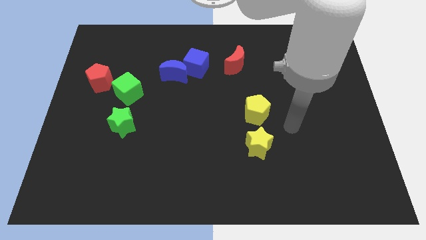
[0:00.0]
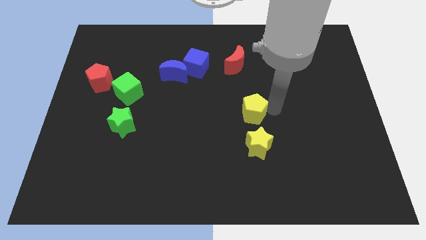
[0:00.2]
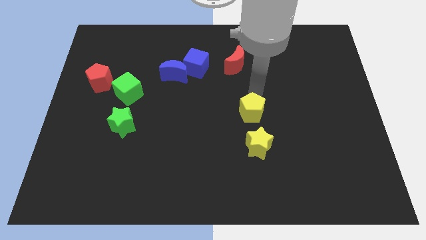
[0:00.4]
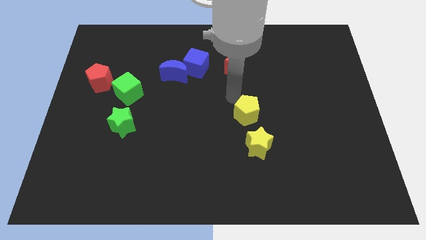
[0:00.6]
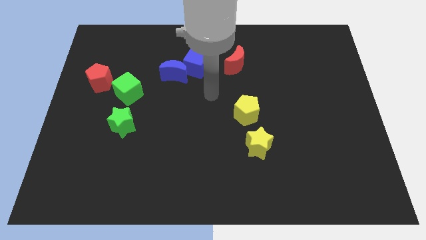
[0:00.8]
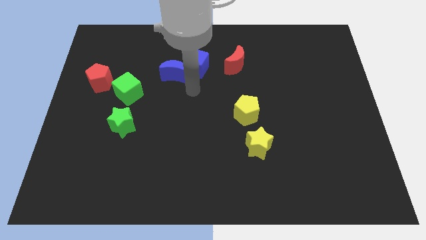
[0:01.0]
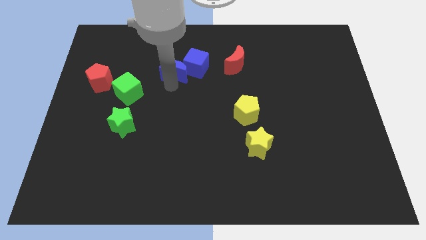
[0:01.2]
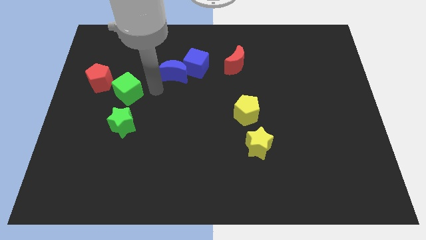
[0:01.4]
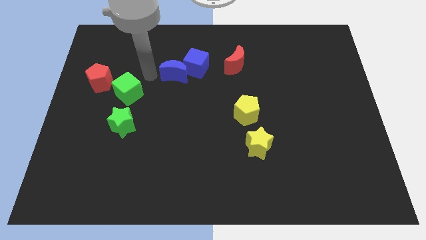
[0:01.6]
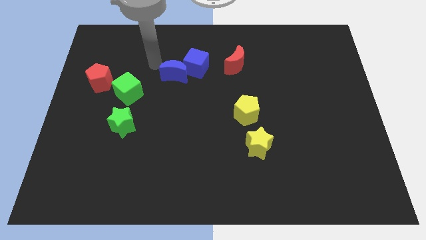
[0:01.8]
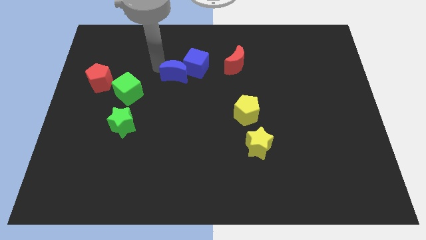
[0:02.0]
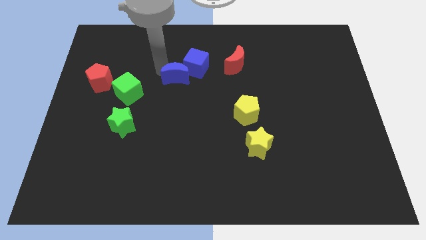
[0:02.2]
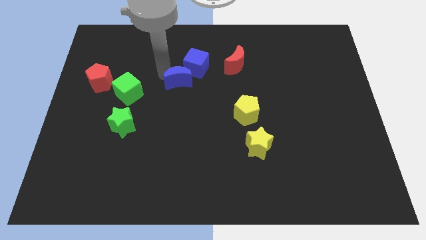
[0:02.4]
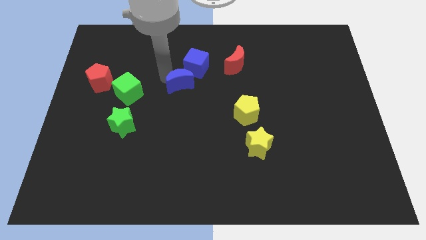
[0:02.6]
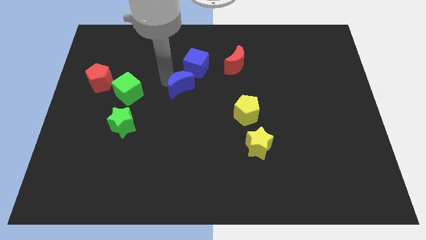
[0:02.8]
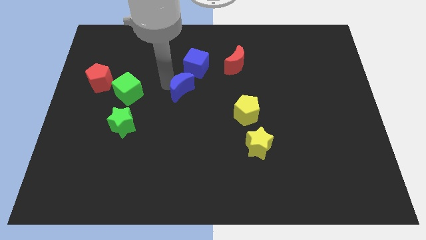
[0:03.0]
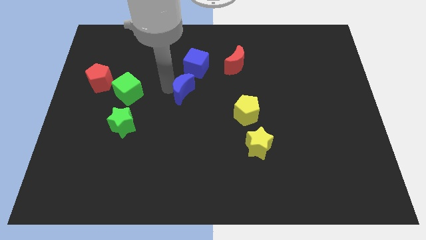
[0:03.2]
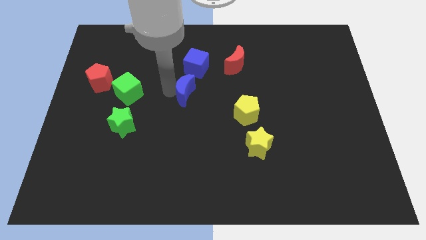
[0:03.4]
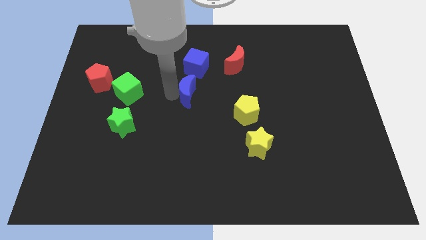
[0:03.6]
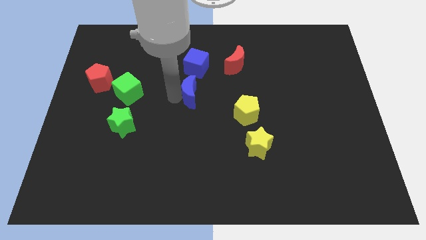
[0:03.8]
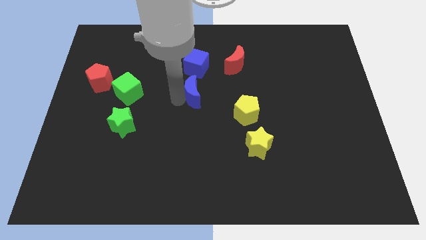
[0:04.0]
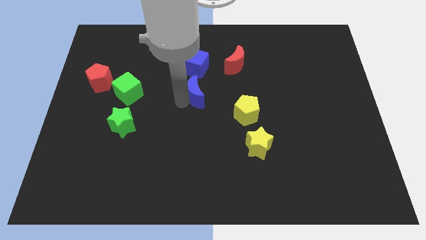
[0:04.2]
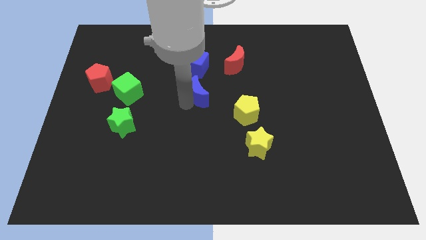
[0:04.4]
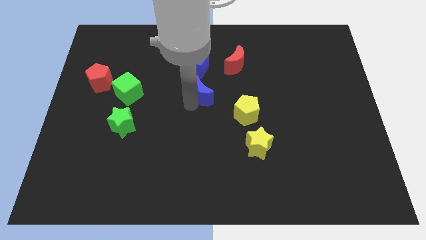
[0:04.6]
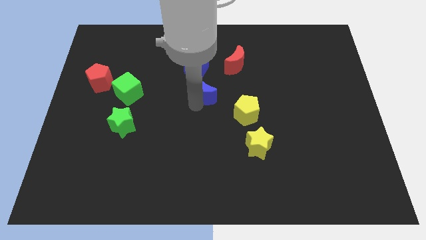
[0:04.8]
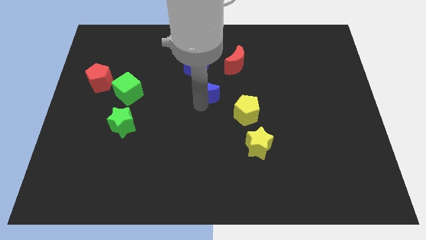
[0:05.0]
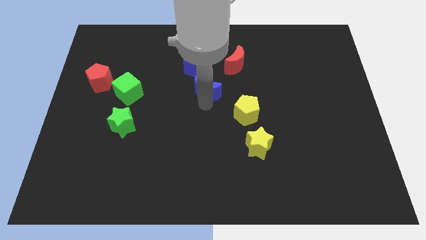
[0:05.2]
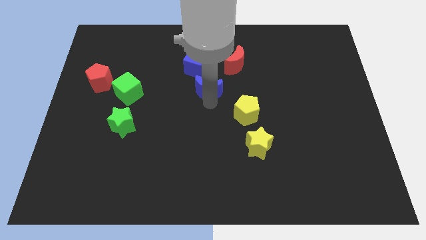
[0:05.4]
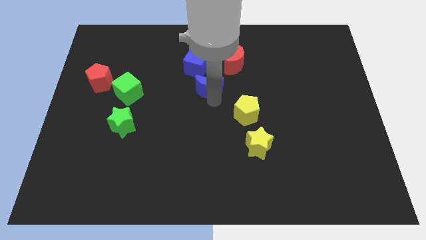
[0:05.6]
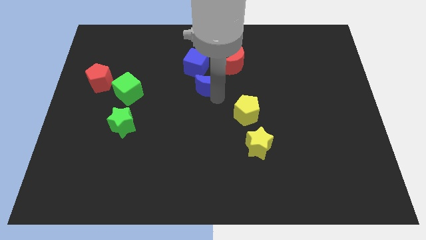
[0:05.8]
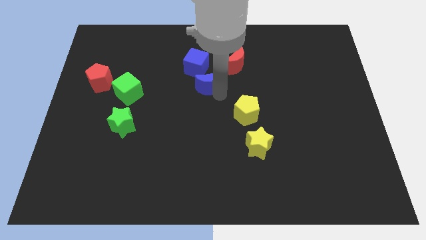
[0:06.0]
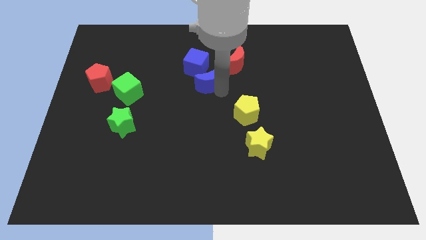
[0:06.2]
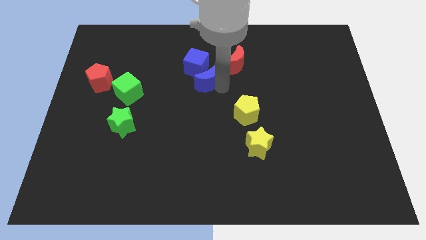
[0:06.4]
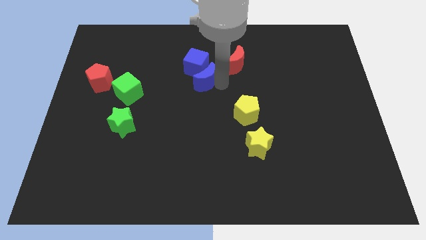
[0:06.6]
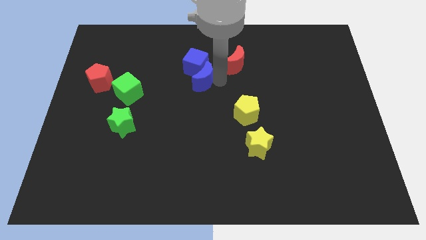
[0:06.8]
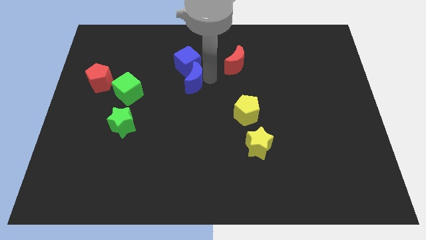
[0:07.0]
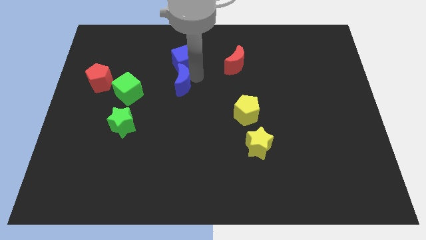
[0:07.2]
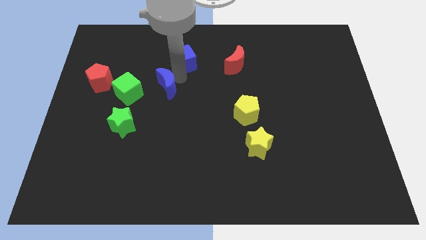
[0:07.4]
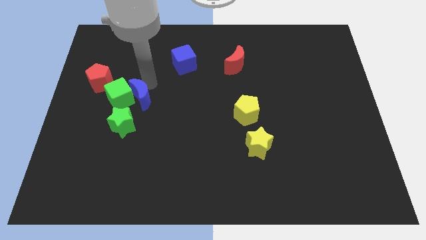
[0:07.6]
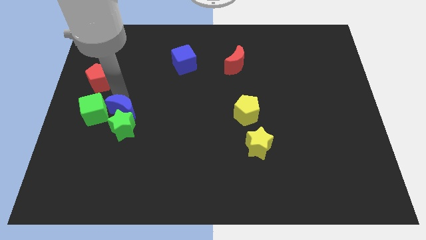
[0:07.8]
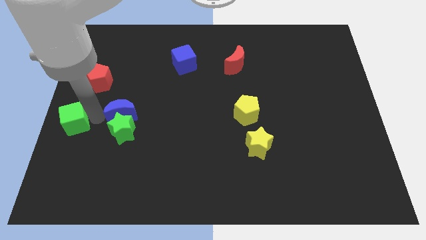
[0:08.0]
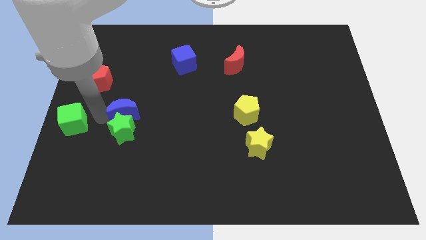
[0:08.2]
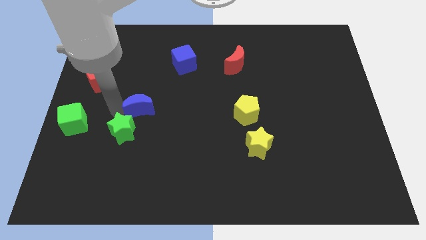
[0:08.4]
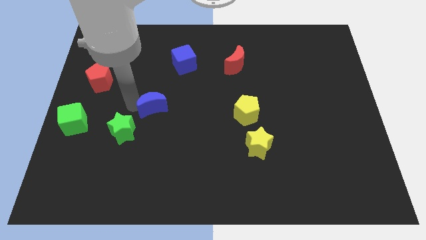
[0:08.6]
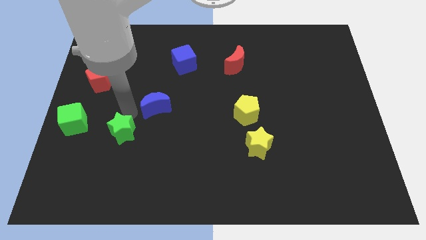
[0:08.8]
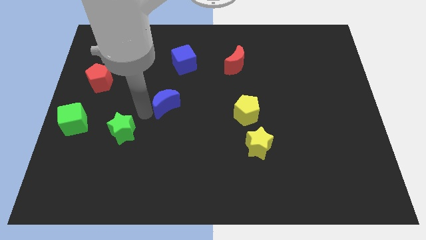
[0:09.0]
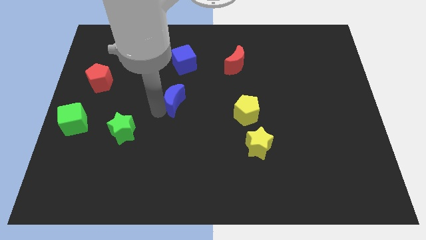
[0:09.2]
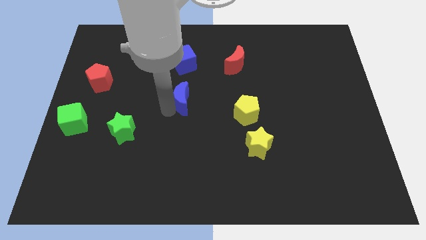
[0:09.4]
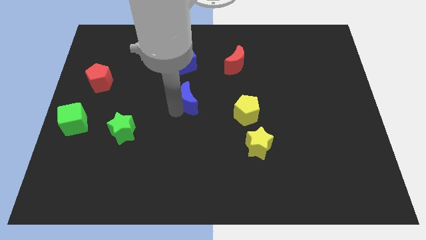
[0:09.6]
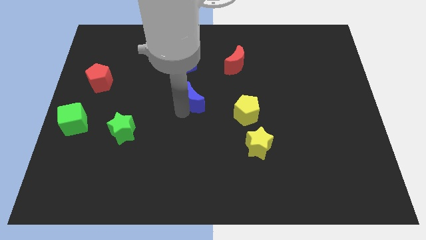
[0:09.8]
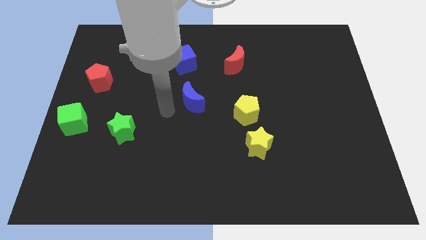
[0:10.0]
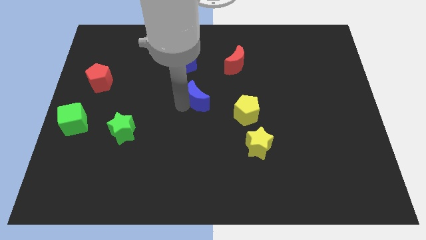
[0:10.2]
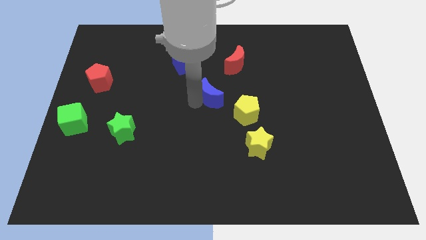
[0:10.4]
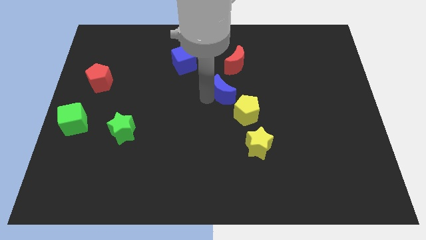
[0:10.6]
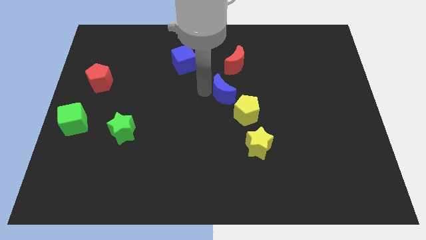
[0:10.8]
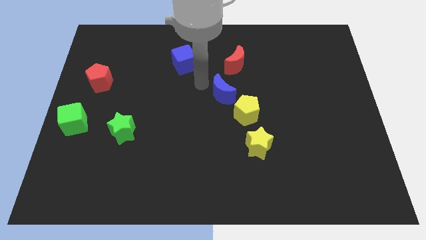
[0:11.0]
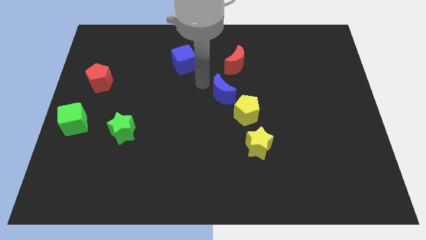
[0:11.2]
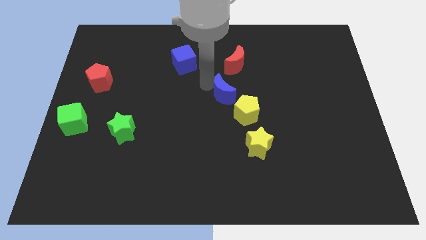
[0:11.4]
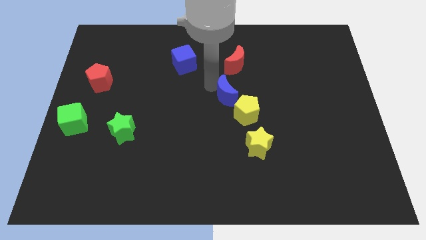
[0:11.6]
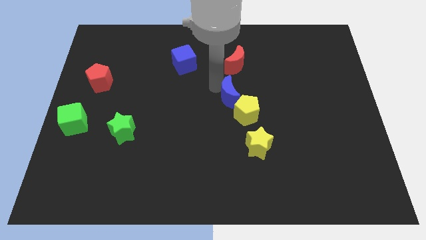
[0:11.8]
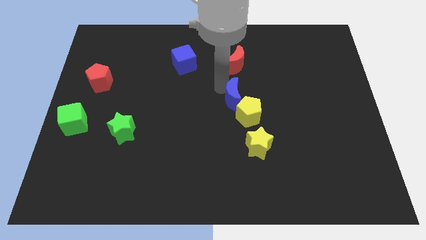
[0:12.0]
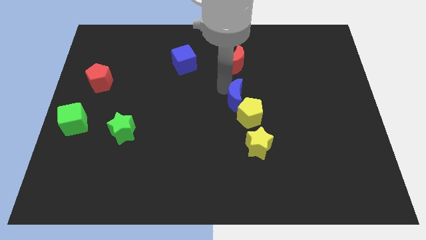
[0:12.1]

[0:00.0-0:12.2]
push the blue moon close to the yellow pentagon

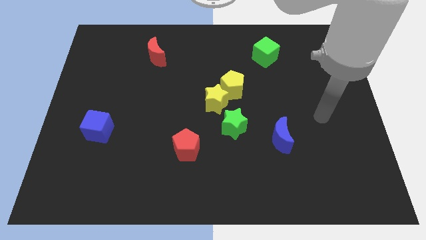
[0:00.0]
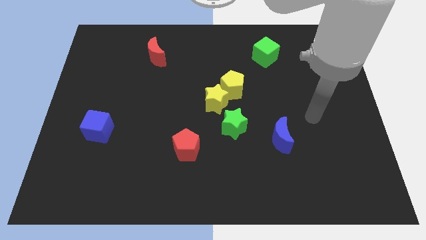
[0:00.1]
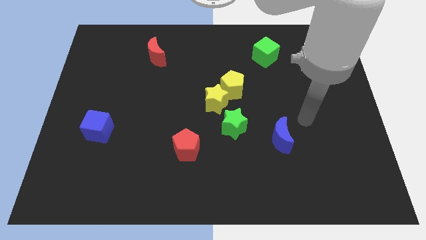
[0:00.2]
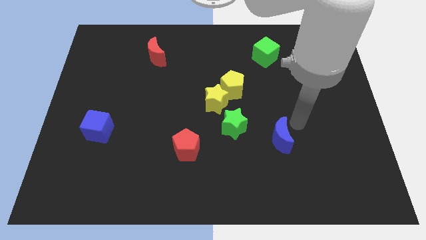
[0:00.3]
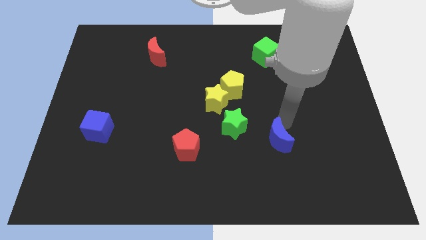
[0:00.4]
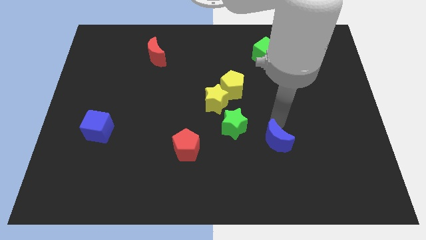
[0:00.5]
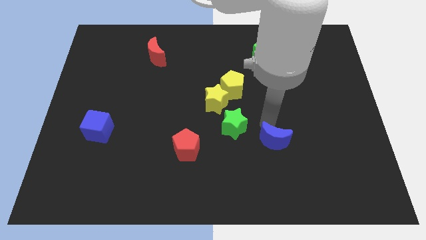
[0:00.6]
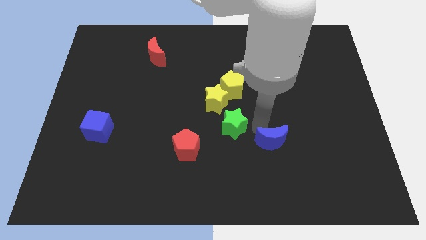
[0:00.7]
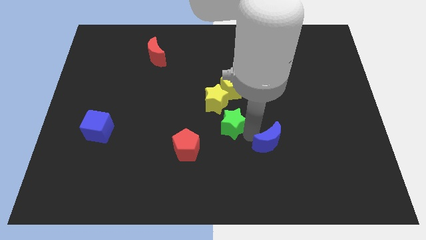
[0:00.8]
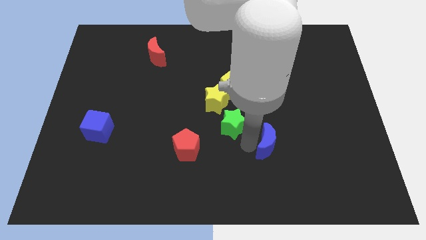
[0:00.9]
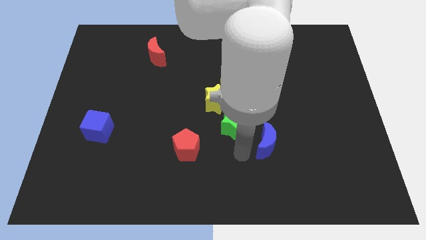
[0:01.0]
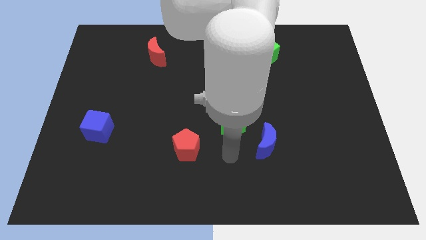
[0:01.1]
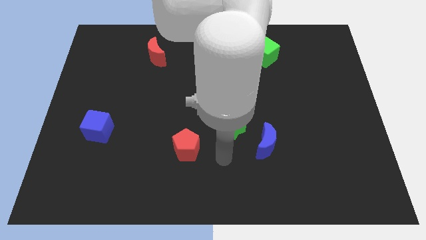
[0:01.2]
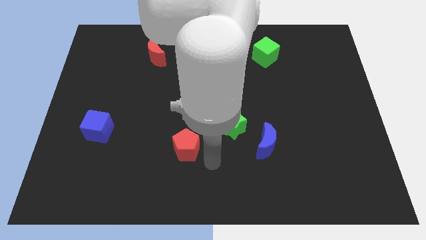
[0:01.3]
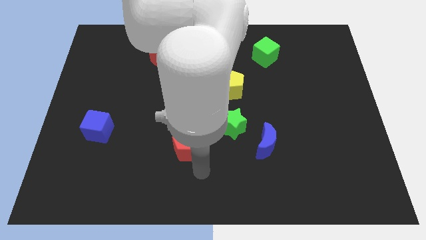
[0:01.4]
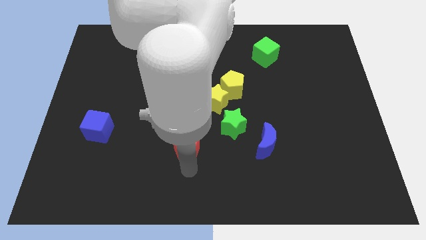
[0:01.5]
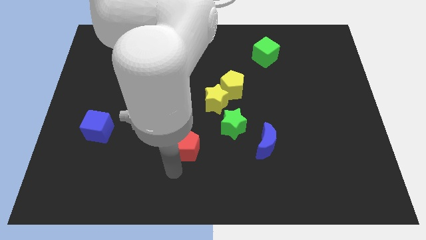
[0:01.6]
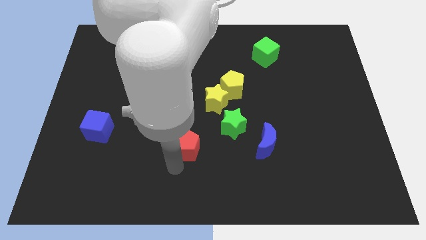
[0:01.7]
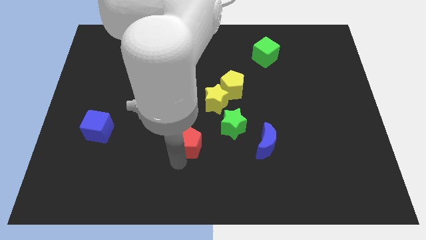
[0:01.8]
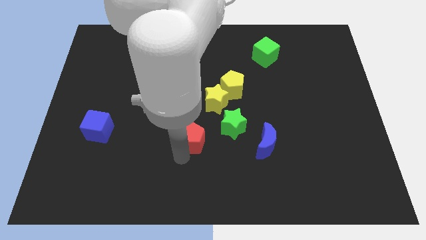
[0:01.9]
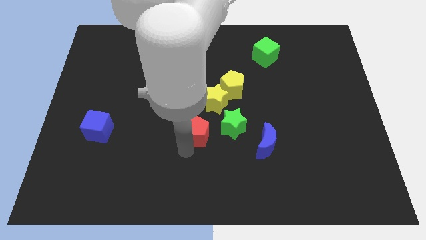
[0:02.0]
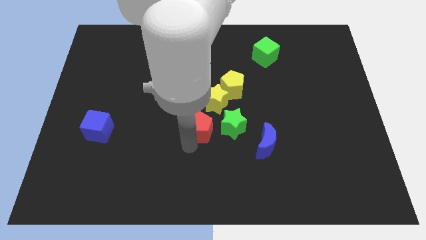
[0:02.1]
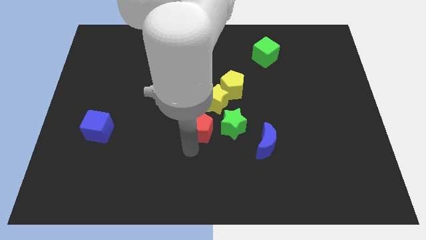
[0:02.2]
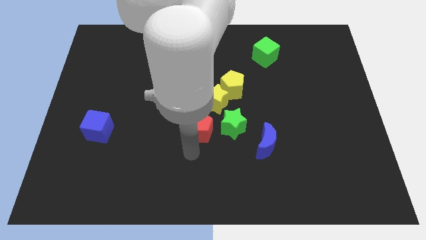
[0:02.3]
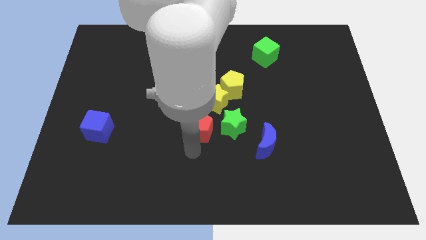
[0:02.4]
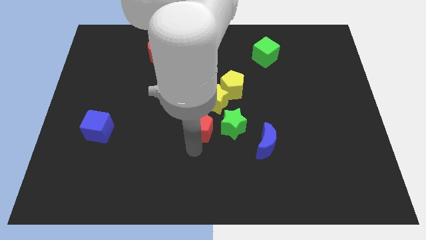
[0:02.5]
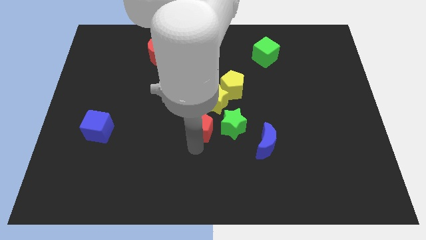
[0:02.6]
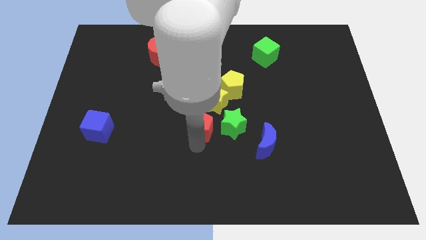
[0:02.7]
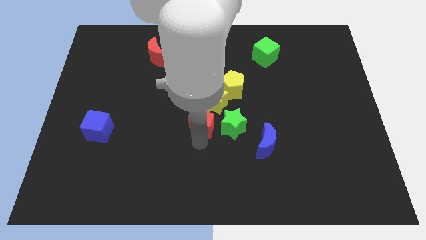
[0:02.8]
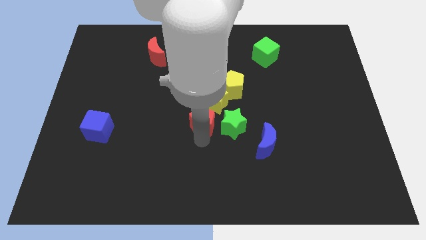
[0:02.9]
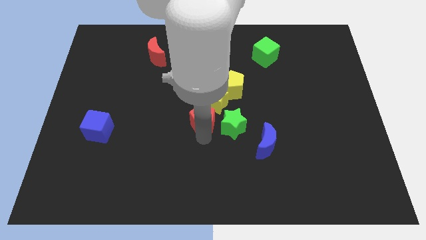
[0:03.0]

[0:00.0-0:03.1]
move the red pentagon to the yellow star
